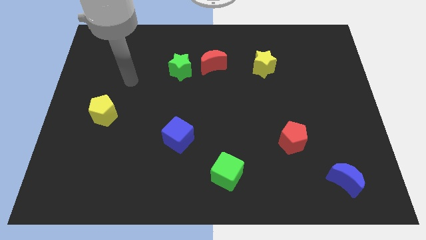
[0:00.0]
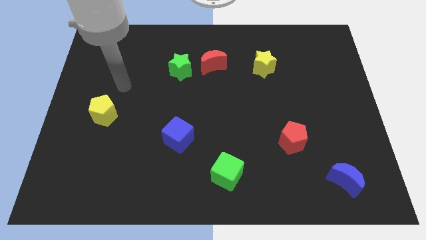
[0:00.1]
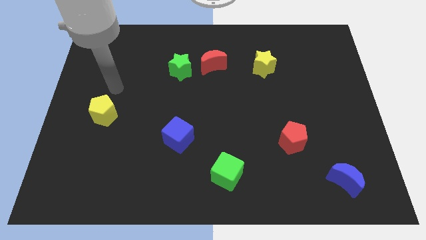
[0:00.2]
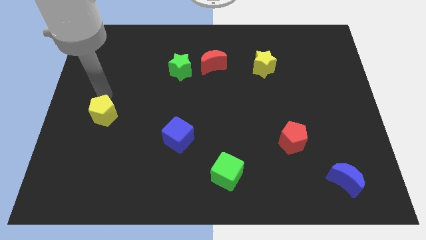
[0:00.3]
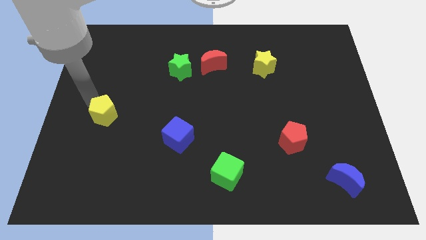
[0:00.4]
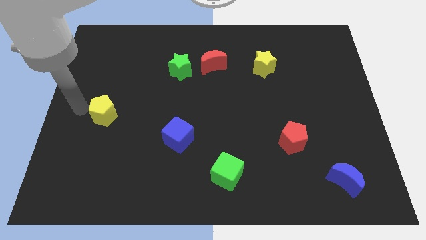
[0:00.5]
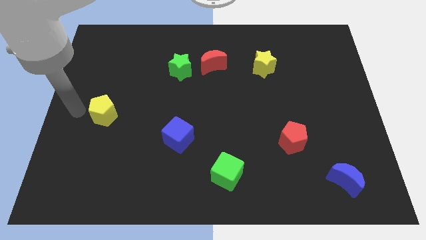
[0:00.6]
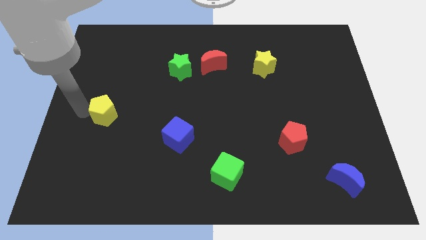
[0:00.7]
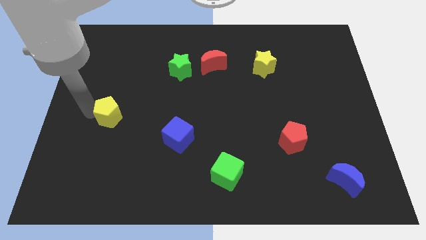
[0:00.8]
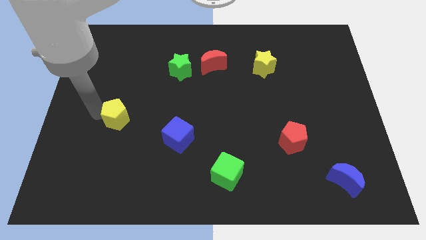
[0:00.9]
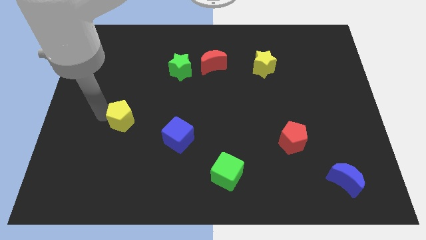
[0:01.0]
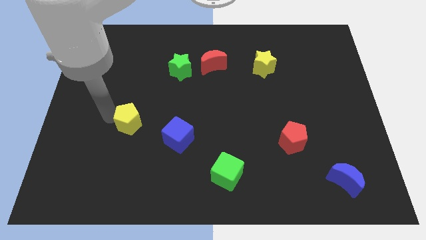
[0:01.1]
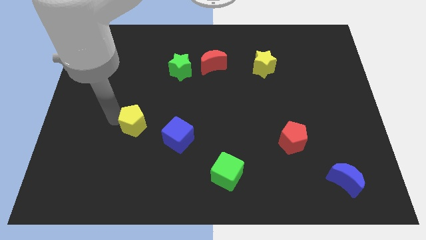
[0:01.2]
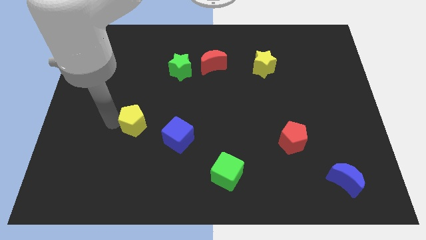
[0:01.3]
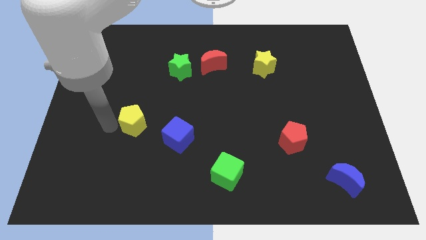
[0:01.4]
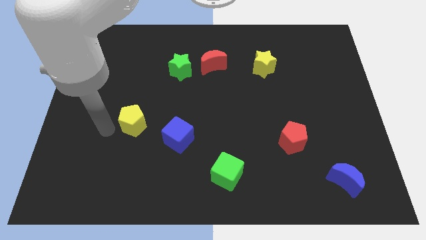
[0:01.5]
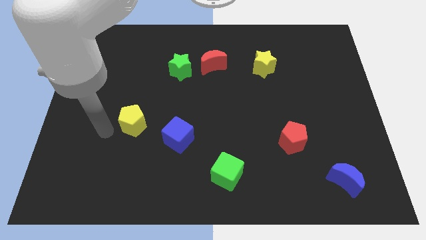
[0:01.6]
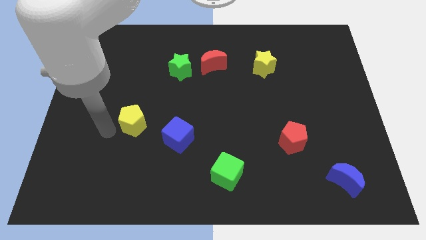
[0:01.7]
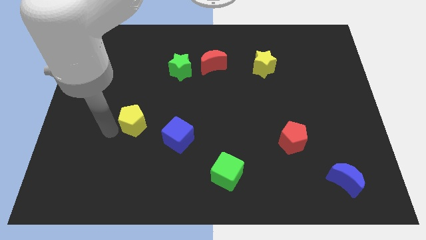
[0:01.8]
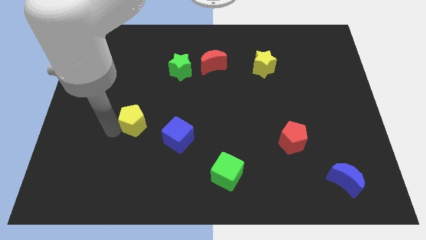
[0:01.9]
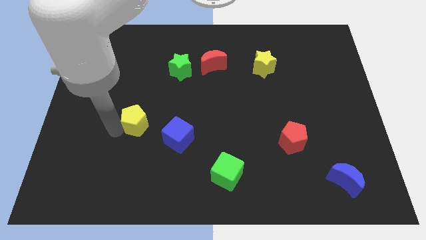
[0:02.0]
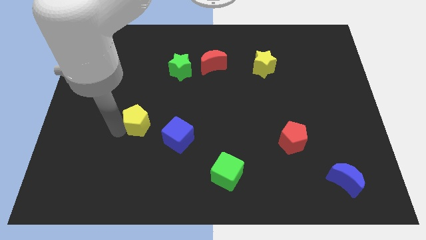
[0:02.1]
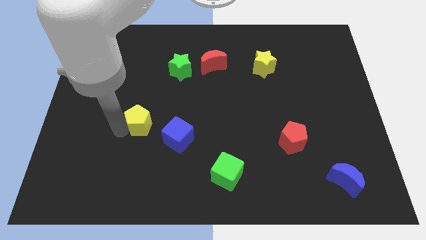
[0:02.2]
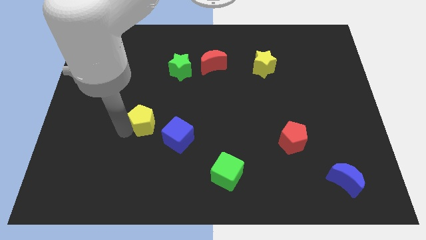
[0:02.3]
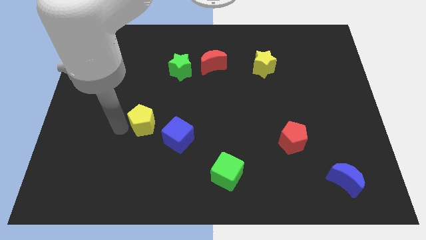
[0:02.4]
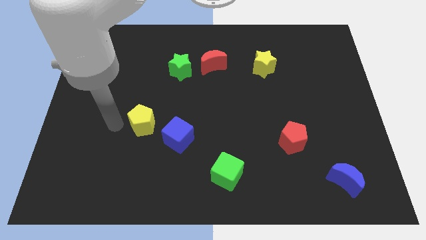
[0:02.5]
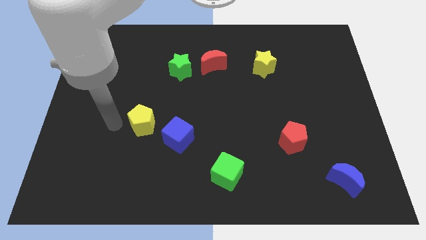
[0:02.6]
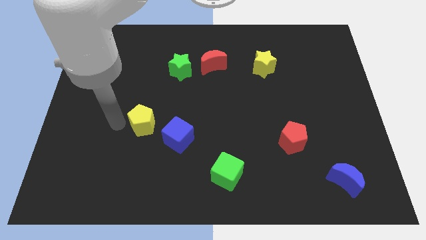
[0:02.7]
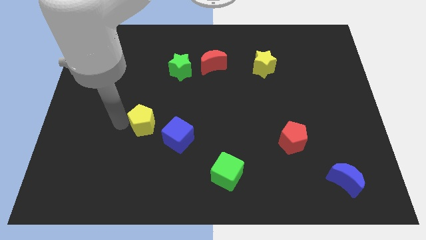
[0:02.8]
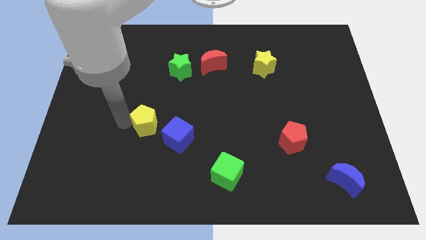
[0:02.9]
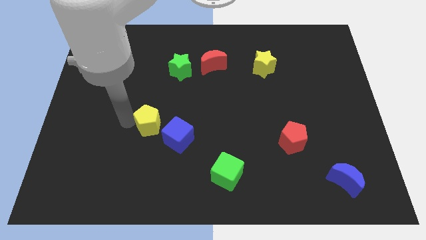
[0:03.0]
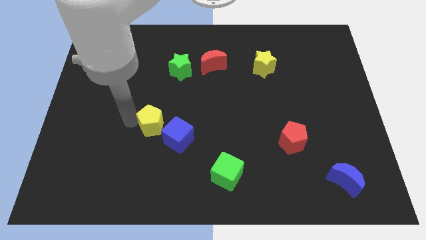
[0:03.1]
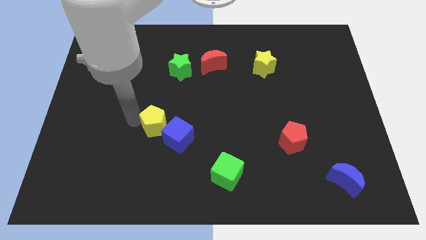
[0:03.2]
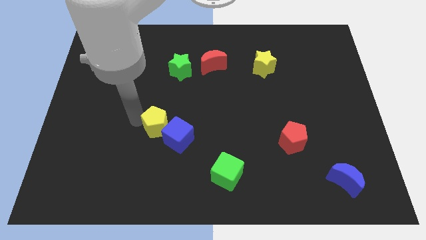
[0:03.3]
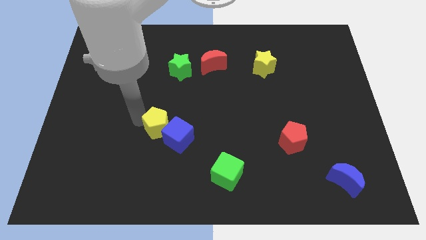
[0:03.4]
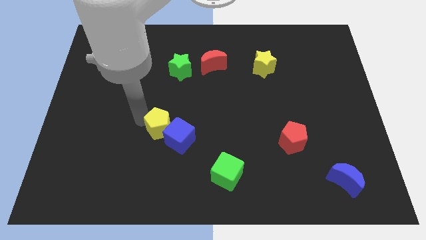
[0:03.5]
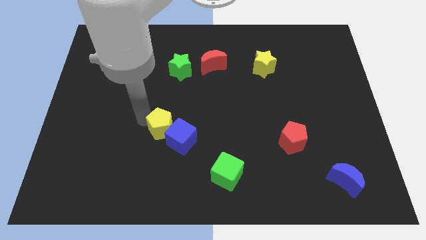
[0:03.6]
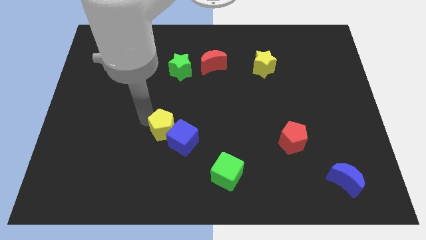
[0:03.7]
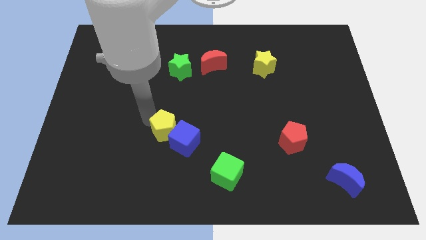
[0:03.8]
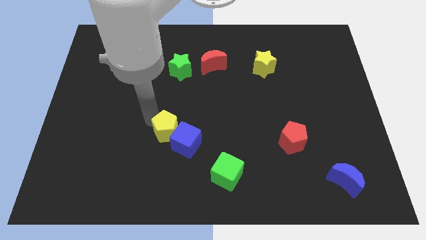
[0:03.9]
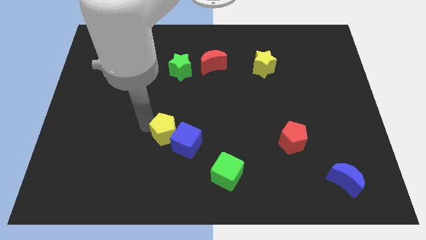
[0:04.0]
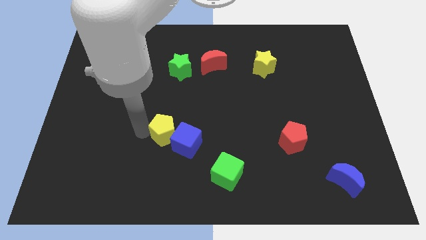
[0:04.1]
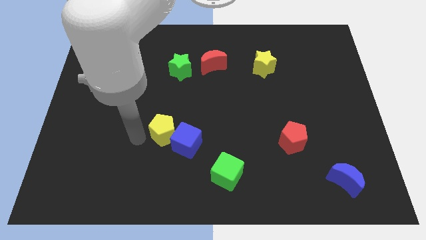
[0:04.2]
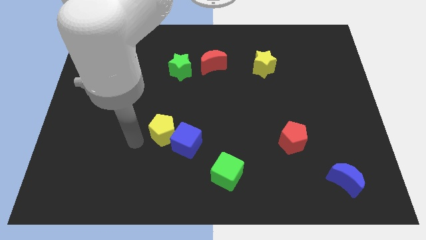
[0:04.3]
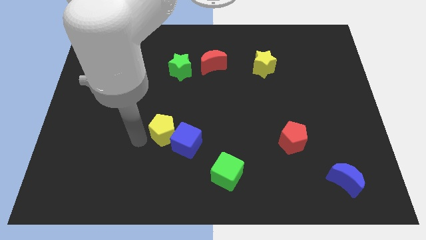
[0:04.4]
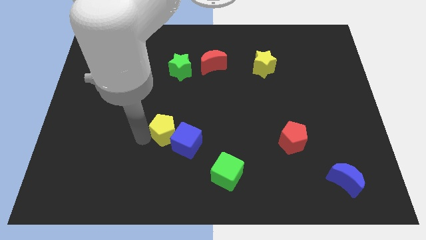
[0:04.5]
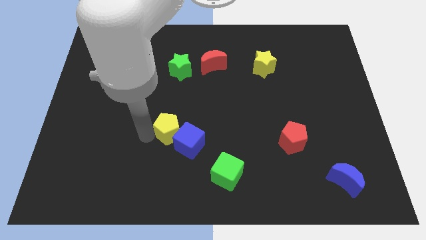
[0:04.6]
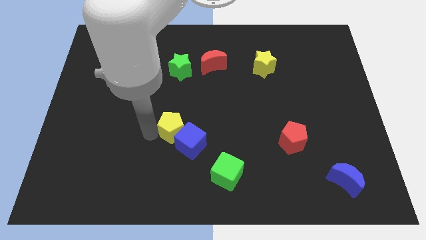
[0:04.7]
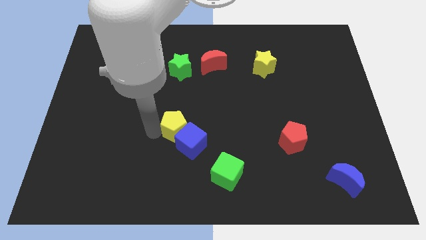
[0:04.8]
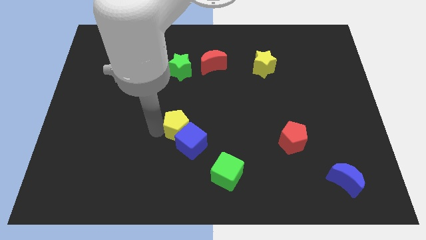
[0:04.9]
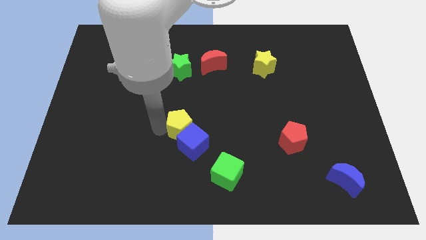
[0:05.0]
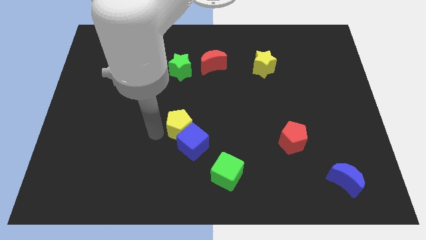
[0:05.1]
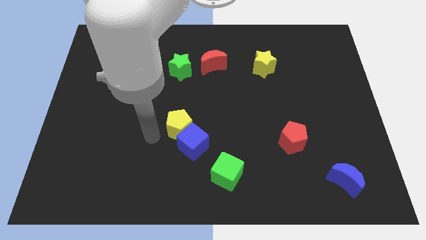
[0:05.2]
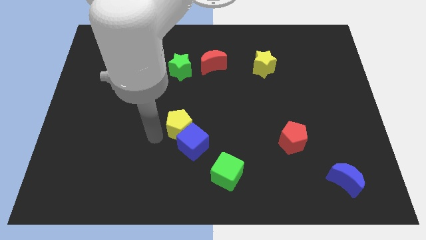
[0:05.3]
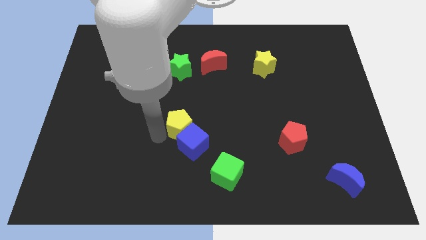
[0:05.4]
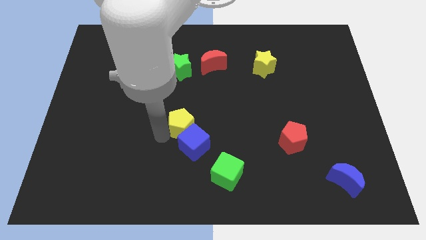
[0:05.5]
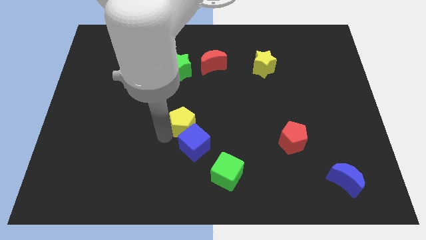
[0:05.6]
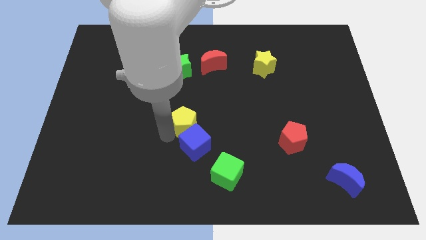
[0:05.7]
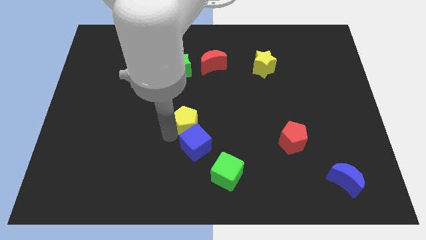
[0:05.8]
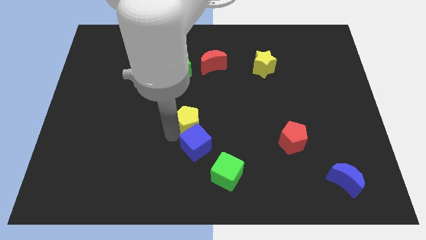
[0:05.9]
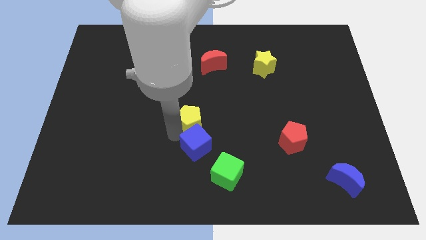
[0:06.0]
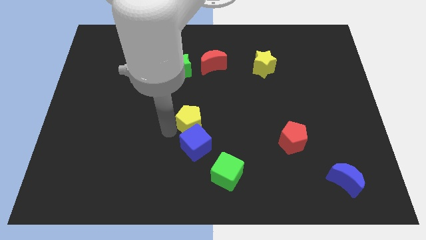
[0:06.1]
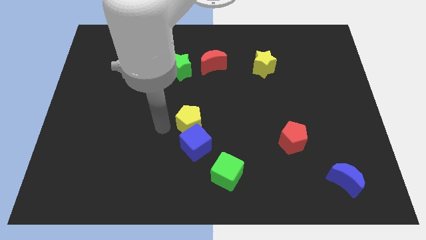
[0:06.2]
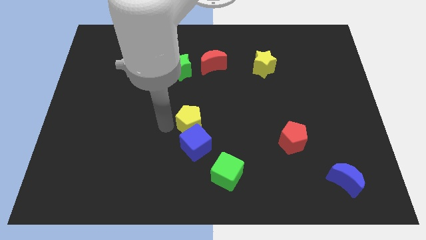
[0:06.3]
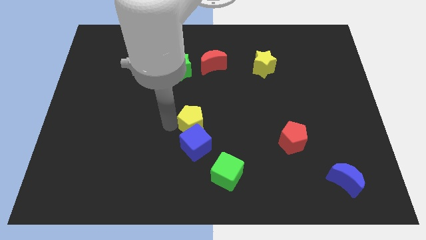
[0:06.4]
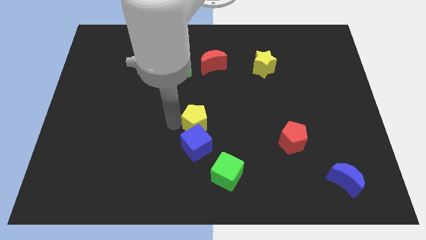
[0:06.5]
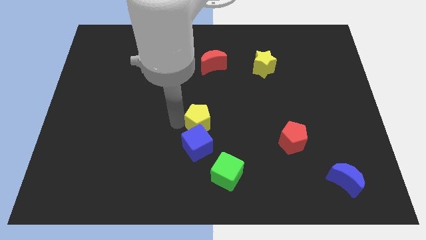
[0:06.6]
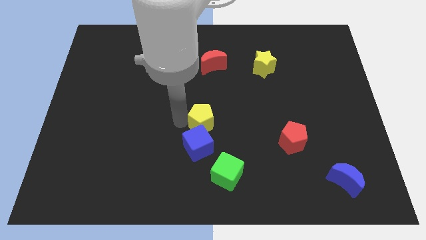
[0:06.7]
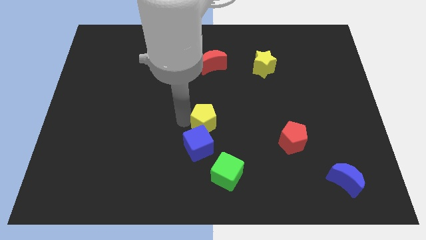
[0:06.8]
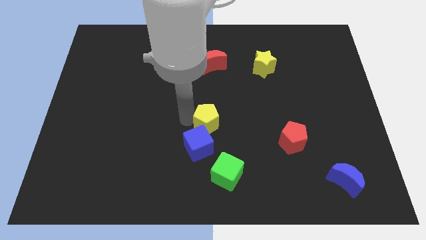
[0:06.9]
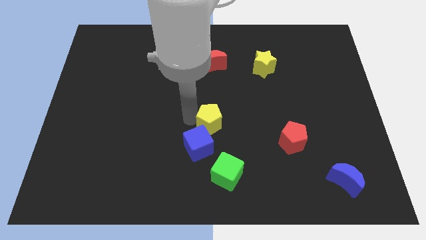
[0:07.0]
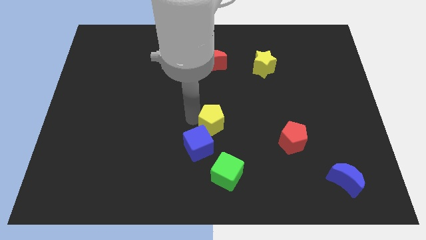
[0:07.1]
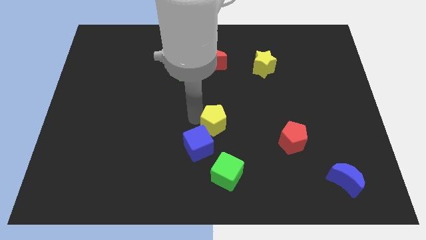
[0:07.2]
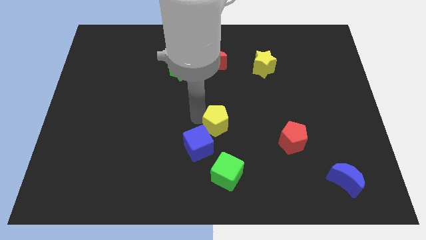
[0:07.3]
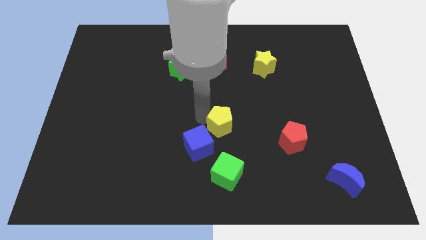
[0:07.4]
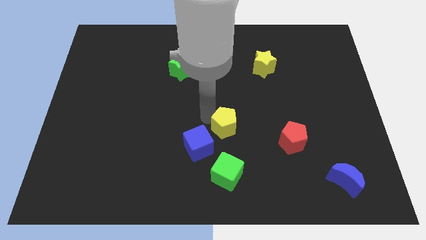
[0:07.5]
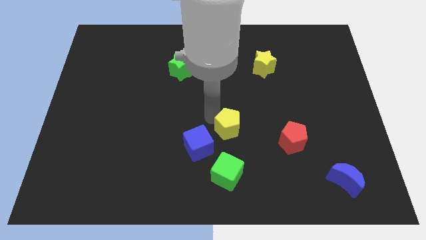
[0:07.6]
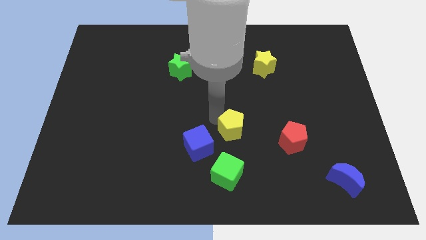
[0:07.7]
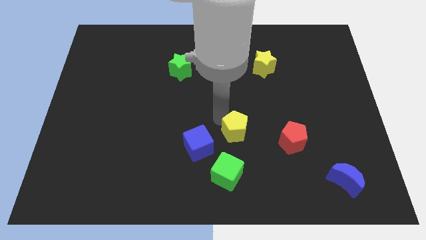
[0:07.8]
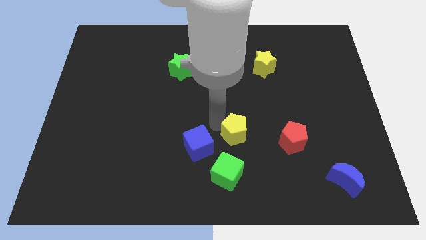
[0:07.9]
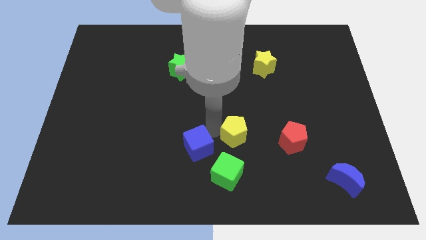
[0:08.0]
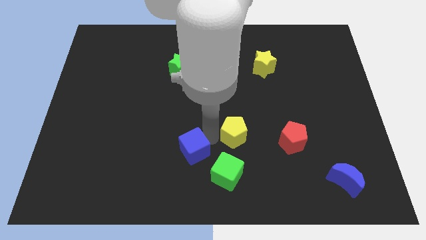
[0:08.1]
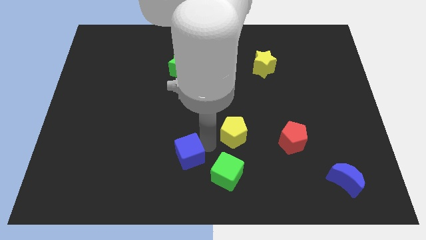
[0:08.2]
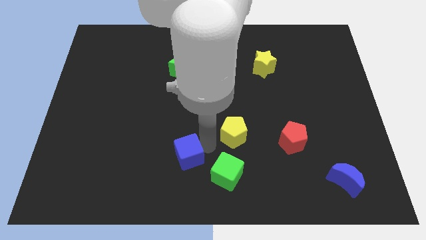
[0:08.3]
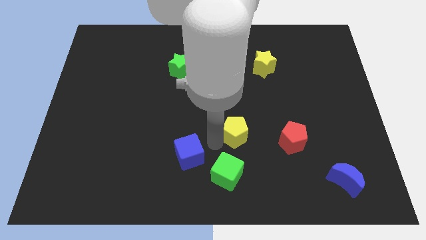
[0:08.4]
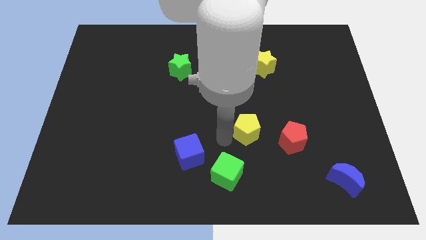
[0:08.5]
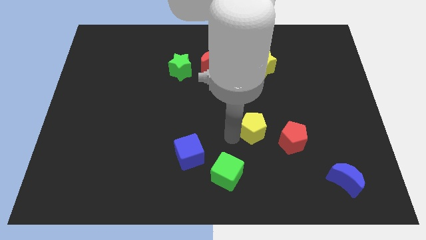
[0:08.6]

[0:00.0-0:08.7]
slide the yellow pentagon to the top left of the red pentagon
